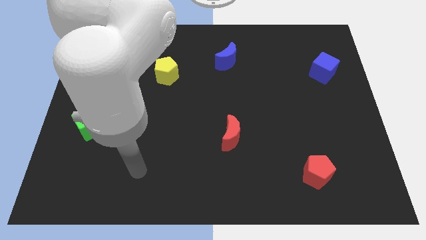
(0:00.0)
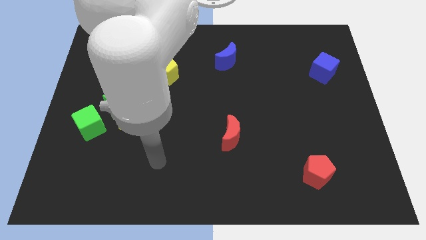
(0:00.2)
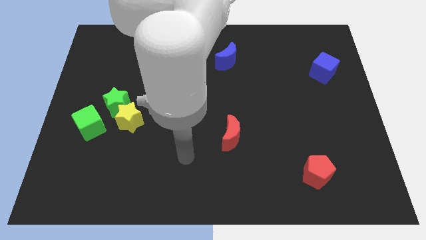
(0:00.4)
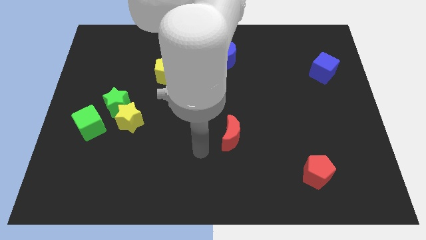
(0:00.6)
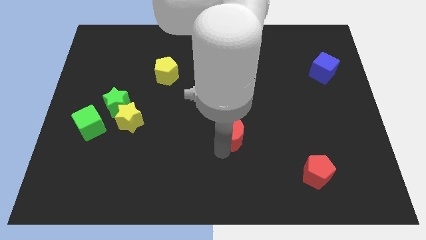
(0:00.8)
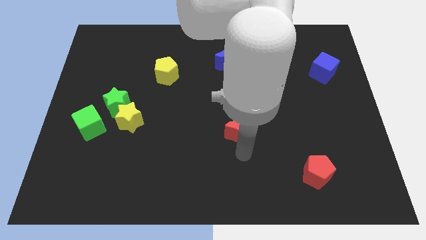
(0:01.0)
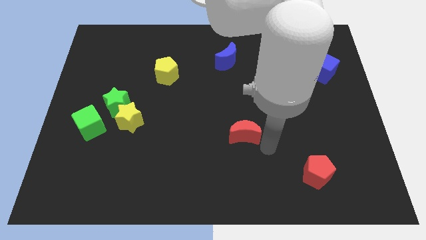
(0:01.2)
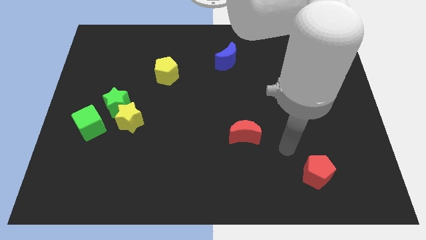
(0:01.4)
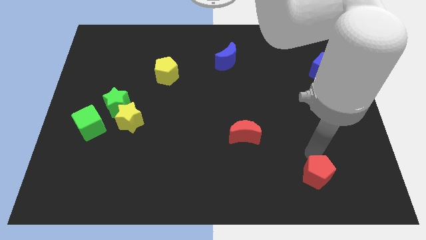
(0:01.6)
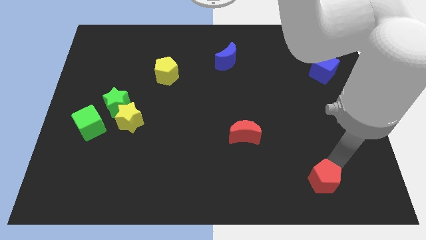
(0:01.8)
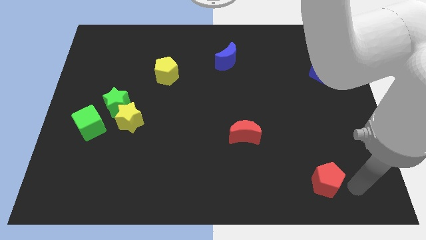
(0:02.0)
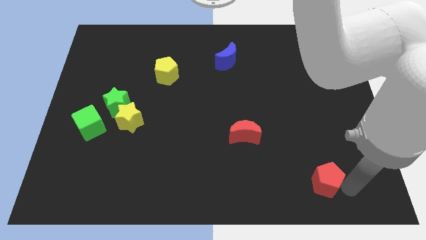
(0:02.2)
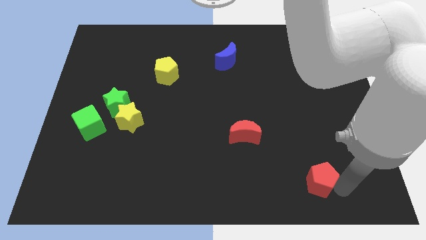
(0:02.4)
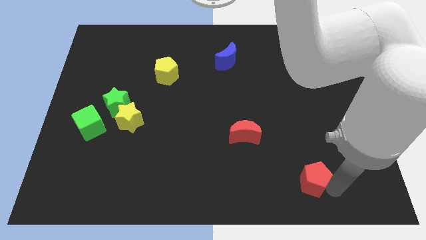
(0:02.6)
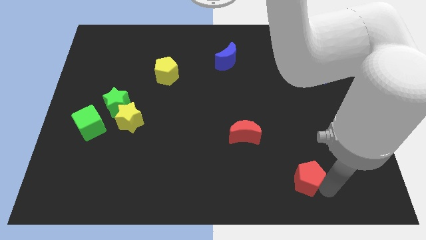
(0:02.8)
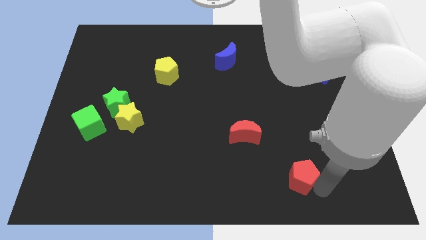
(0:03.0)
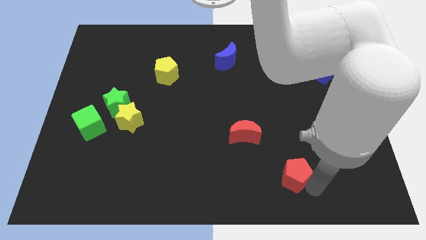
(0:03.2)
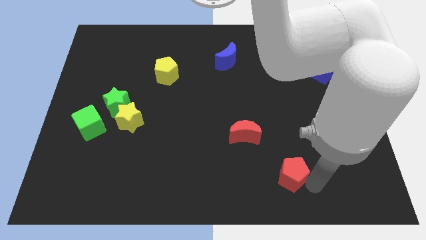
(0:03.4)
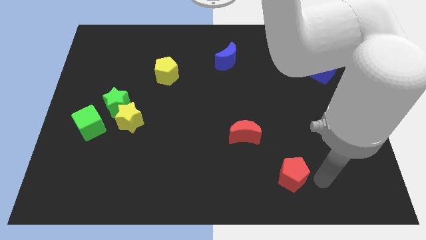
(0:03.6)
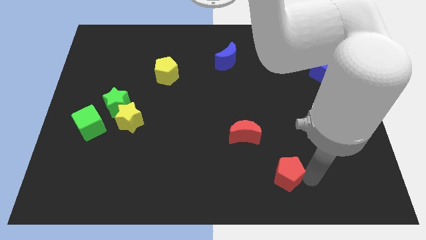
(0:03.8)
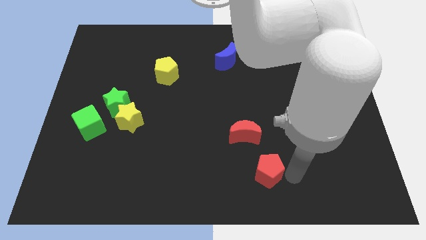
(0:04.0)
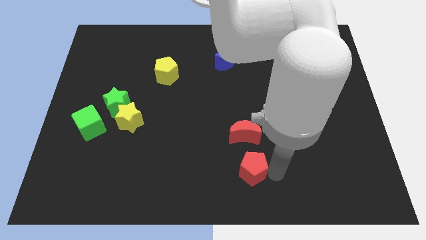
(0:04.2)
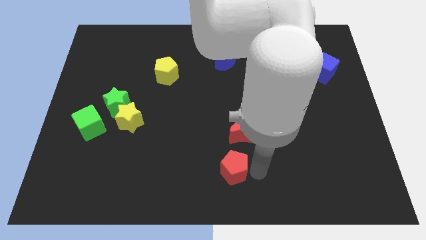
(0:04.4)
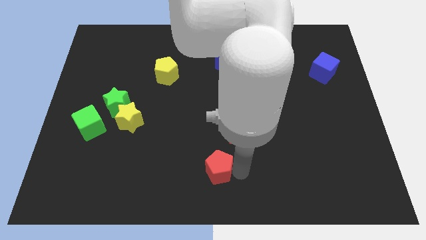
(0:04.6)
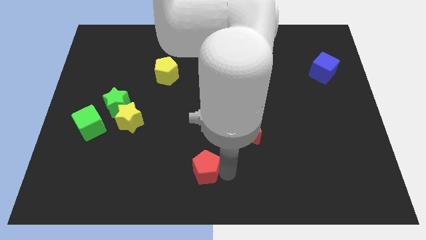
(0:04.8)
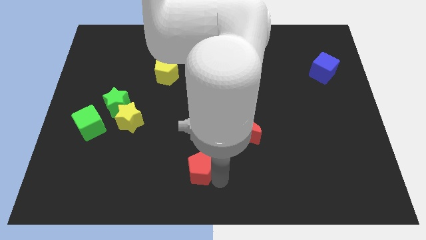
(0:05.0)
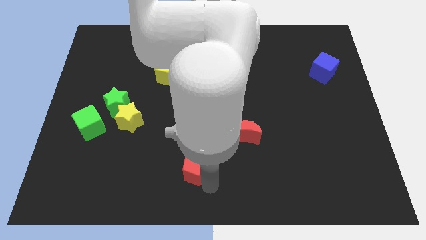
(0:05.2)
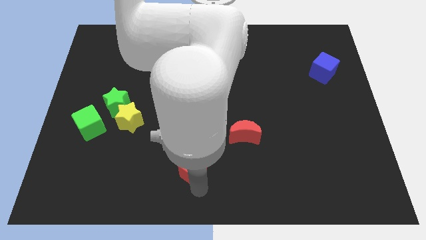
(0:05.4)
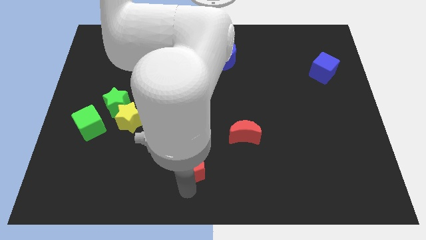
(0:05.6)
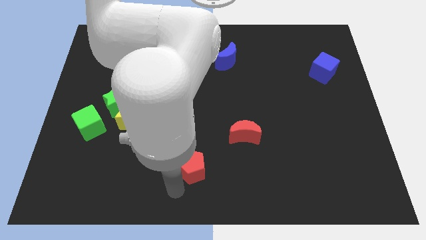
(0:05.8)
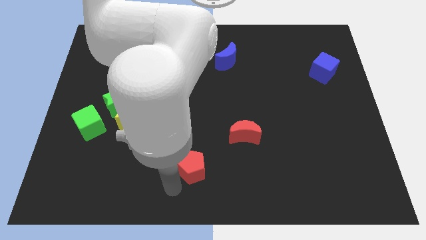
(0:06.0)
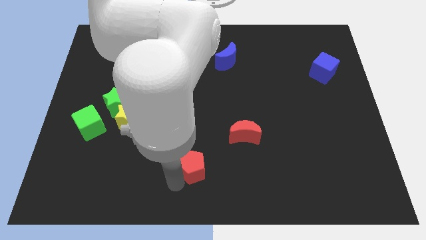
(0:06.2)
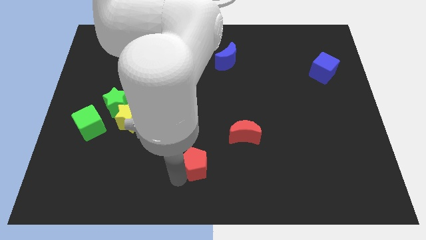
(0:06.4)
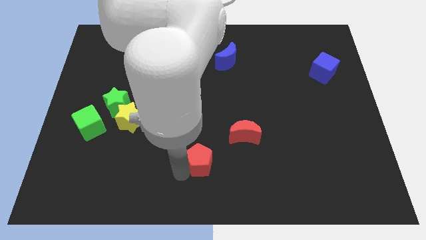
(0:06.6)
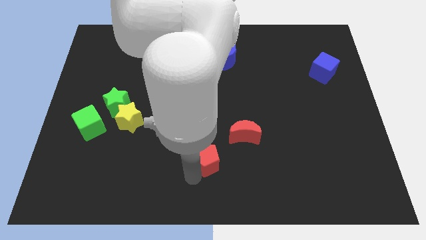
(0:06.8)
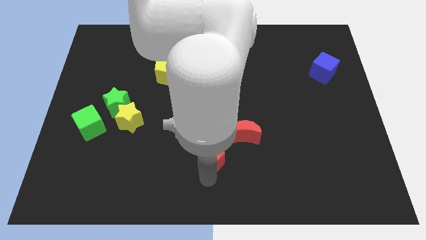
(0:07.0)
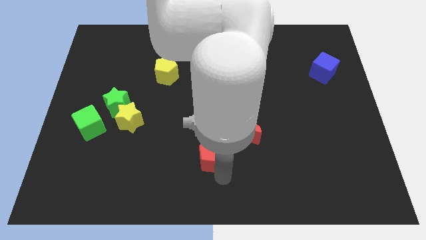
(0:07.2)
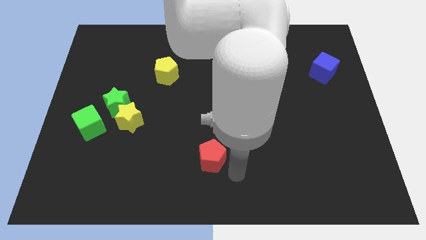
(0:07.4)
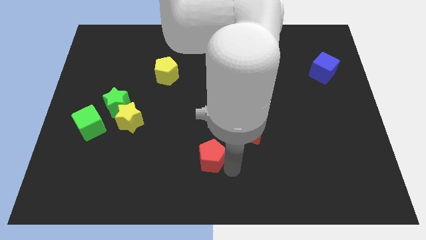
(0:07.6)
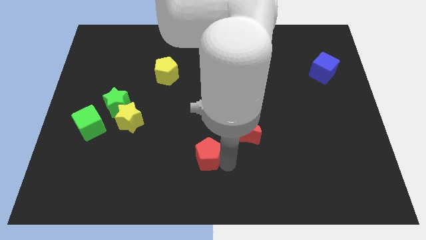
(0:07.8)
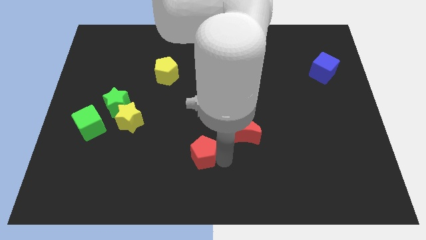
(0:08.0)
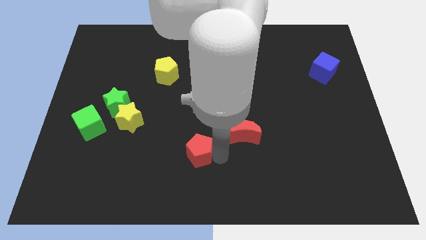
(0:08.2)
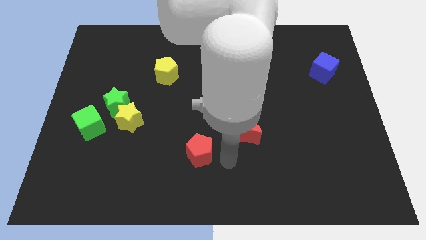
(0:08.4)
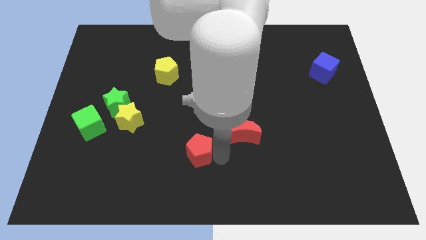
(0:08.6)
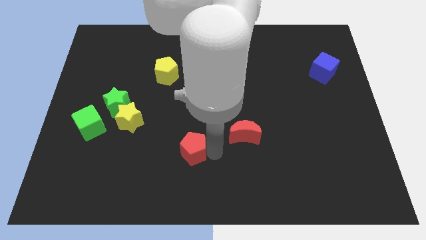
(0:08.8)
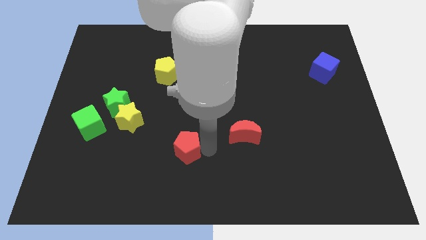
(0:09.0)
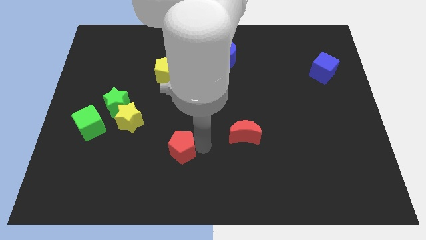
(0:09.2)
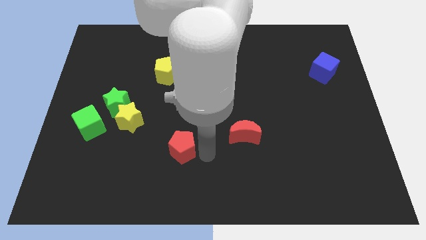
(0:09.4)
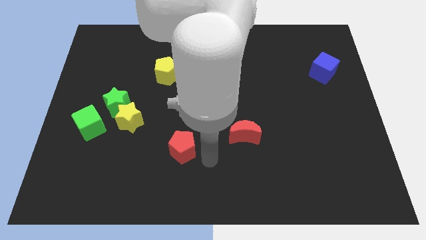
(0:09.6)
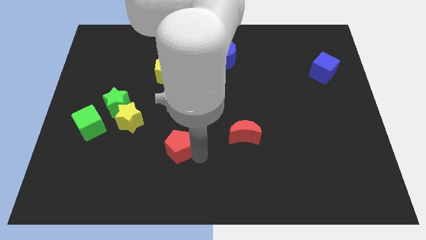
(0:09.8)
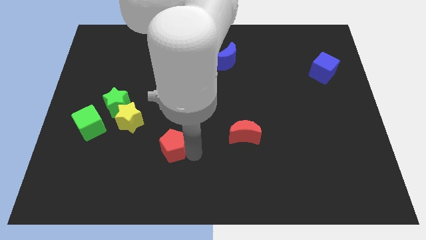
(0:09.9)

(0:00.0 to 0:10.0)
move the red pentagon to the bottom right side of the yellow star
